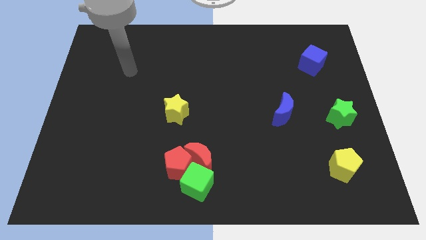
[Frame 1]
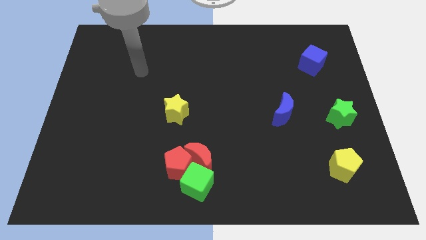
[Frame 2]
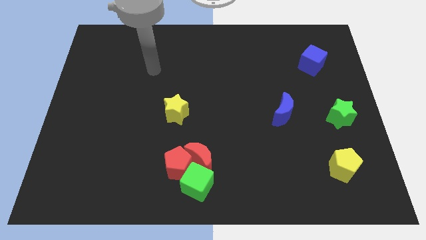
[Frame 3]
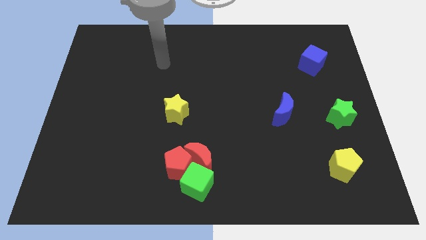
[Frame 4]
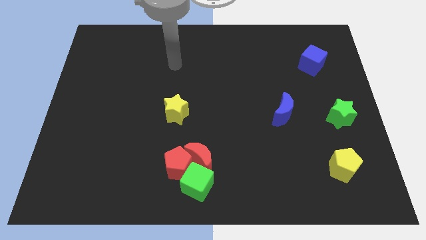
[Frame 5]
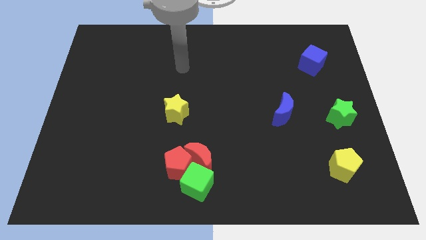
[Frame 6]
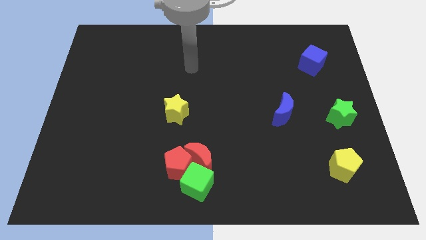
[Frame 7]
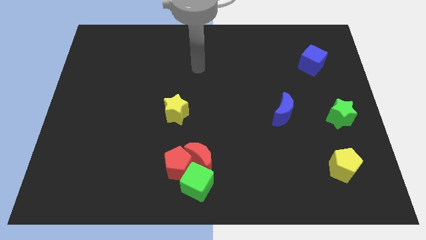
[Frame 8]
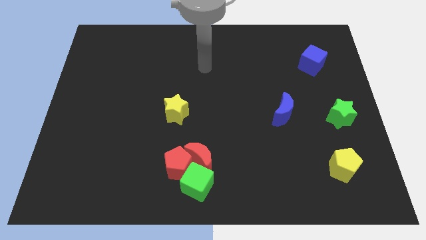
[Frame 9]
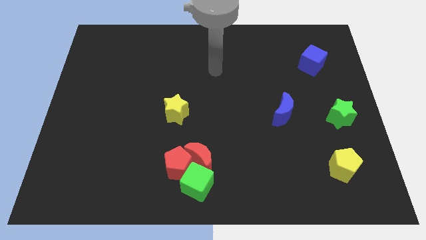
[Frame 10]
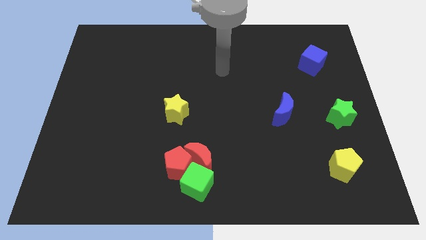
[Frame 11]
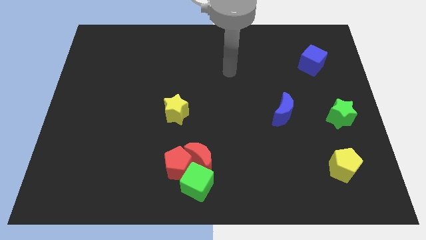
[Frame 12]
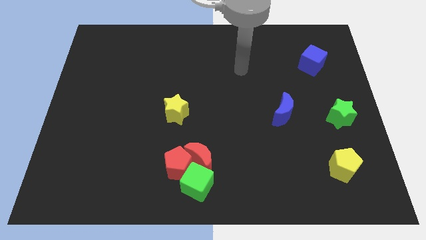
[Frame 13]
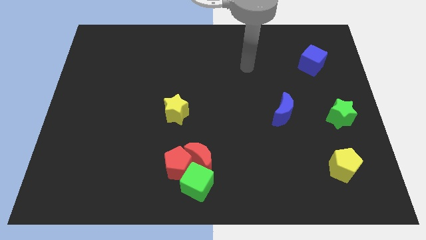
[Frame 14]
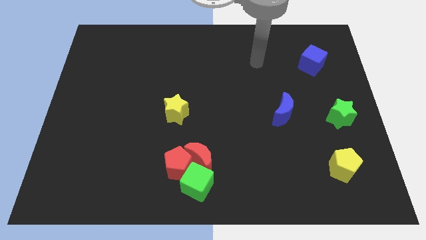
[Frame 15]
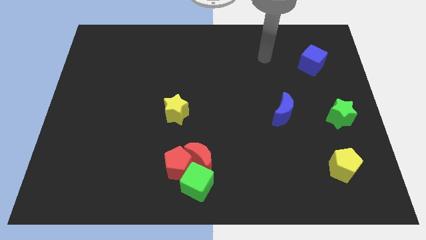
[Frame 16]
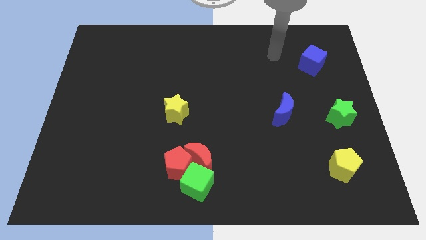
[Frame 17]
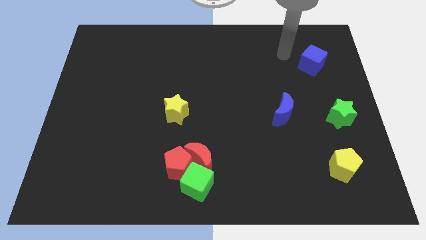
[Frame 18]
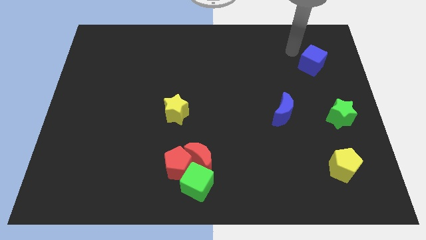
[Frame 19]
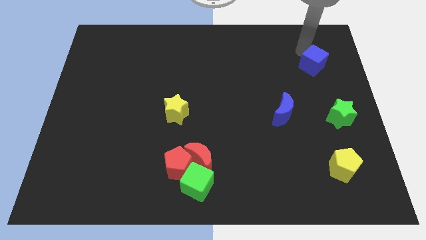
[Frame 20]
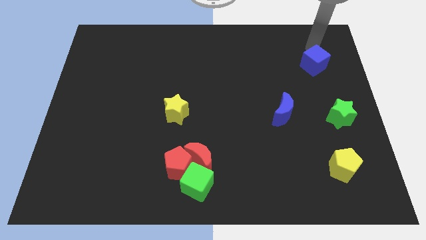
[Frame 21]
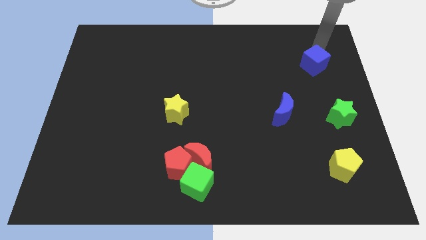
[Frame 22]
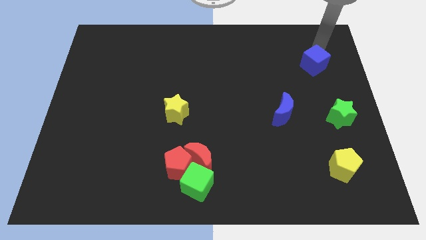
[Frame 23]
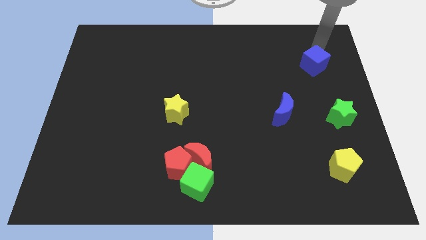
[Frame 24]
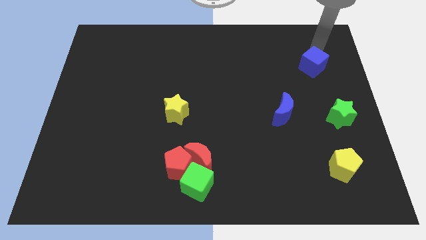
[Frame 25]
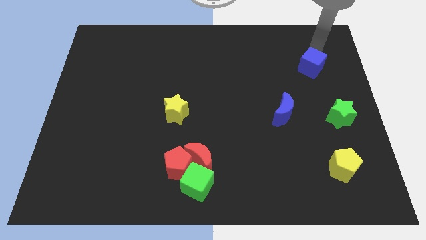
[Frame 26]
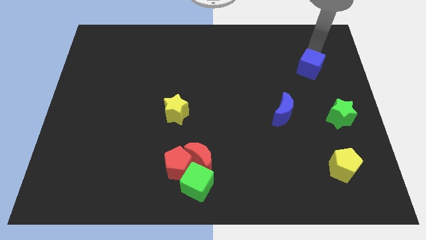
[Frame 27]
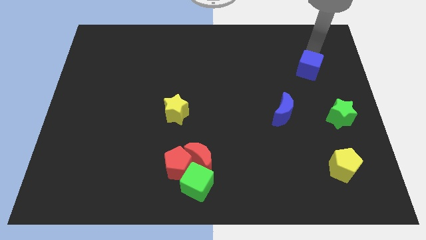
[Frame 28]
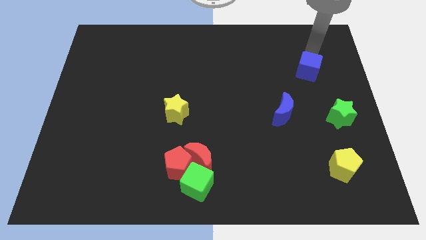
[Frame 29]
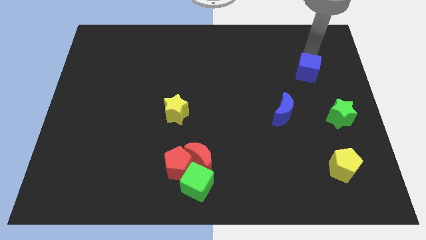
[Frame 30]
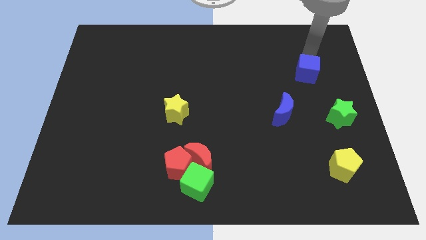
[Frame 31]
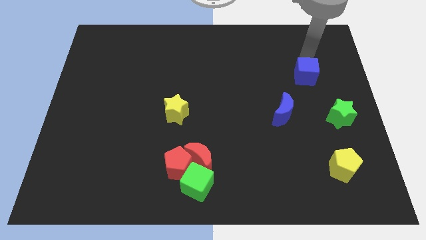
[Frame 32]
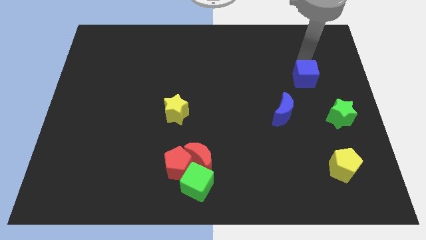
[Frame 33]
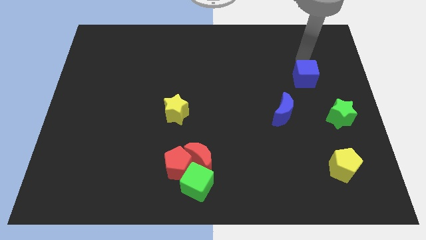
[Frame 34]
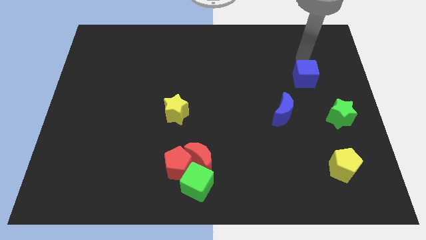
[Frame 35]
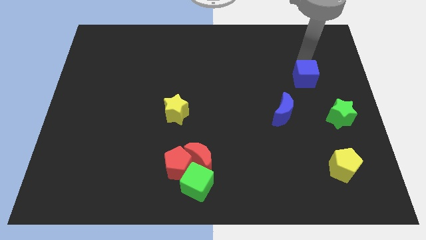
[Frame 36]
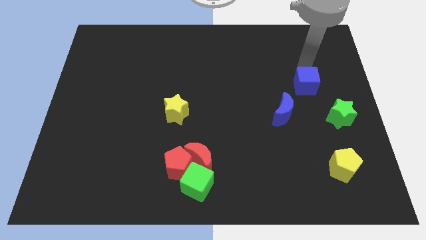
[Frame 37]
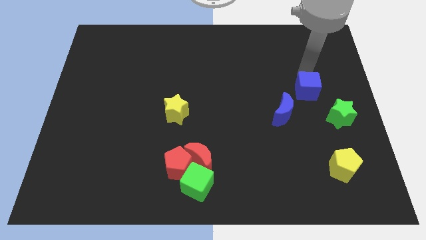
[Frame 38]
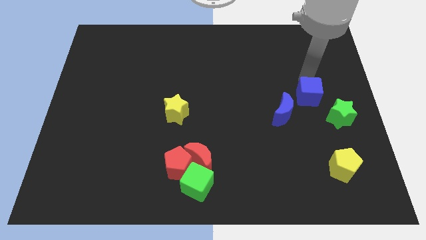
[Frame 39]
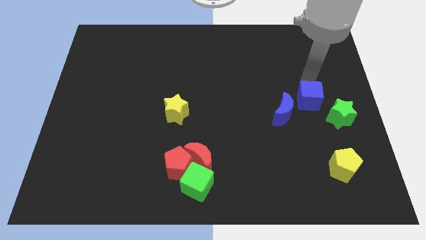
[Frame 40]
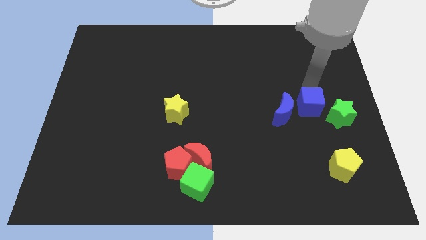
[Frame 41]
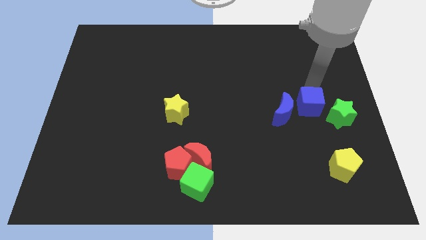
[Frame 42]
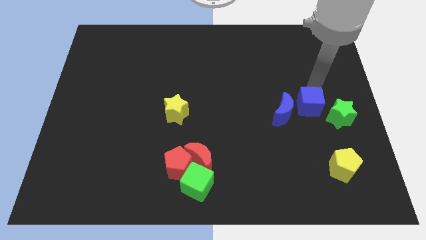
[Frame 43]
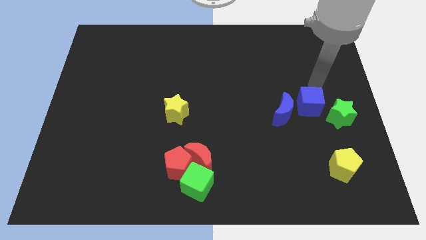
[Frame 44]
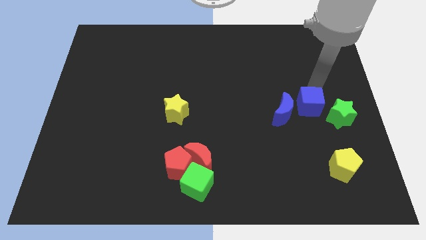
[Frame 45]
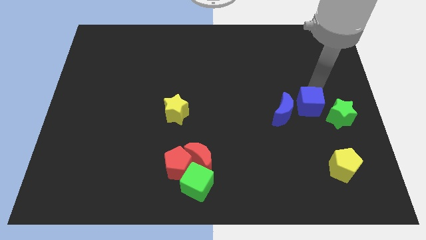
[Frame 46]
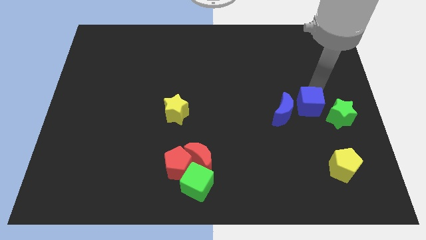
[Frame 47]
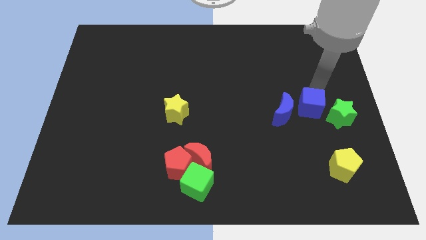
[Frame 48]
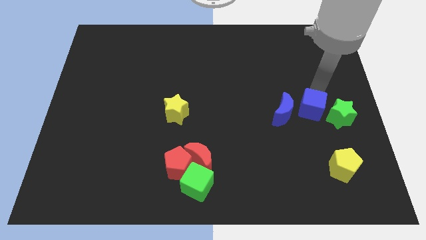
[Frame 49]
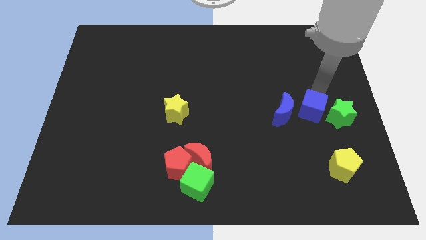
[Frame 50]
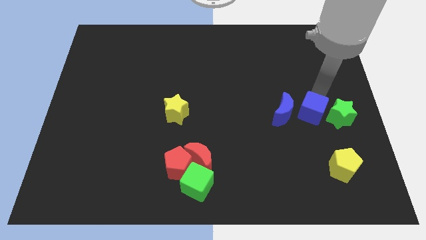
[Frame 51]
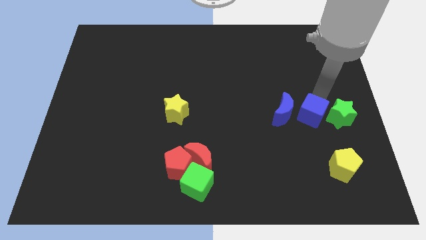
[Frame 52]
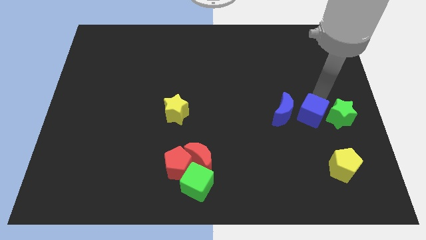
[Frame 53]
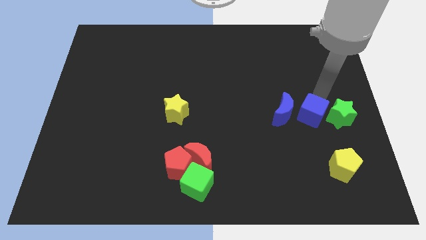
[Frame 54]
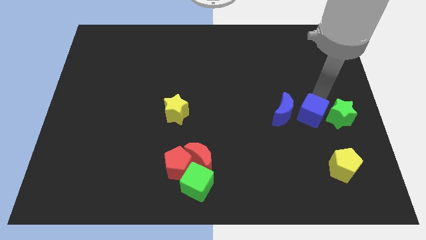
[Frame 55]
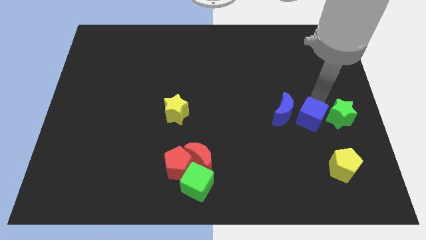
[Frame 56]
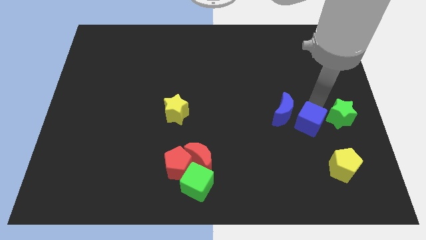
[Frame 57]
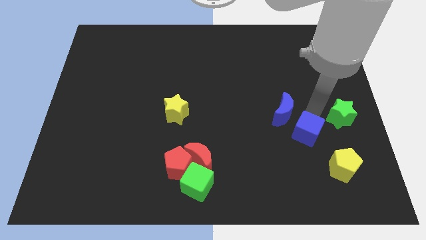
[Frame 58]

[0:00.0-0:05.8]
slide the blue cube below the blue moon

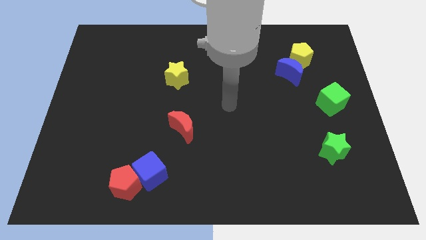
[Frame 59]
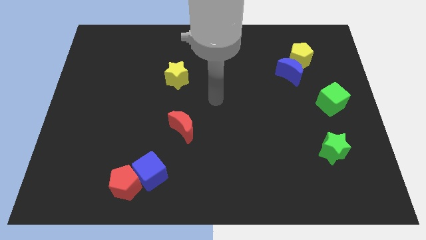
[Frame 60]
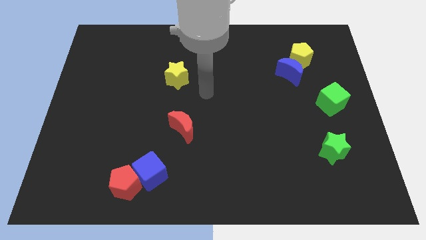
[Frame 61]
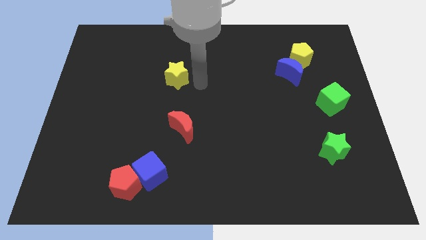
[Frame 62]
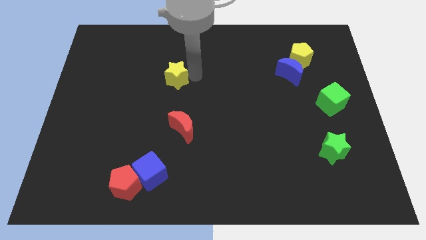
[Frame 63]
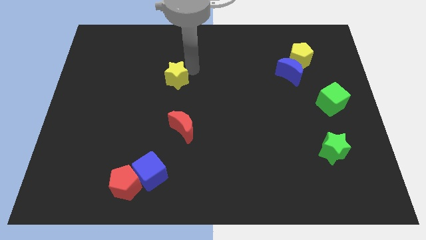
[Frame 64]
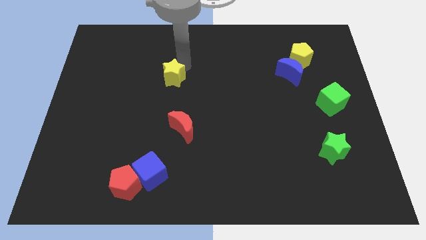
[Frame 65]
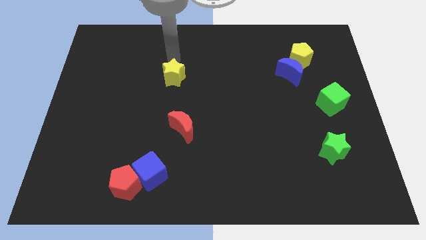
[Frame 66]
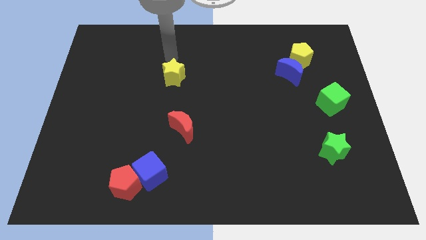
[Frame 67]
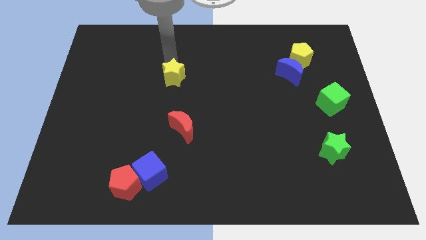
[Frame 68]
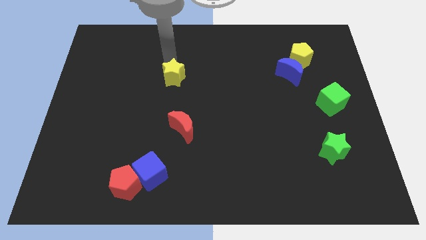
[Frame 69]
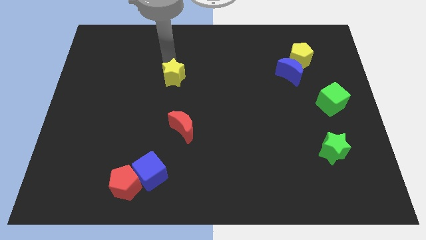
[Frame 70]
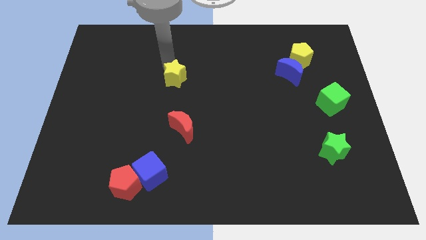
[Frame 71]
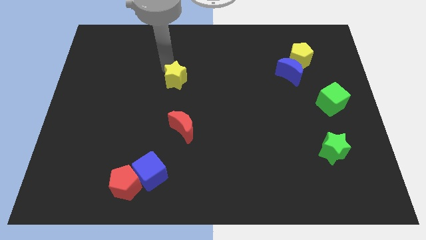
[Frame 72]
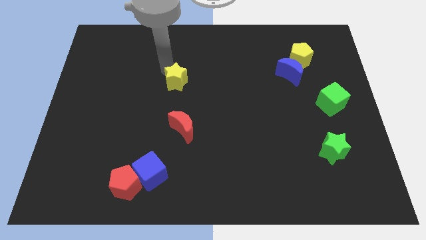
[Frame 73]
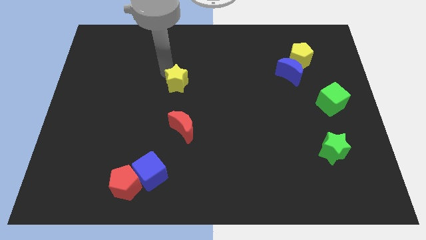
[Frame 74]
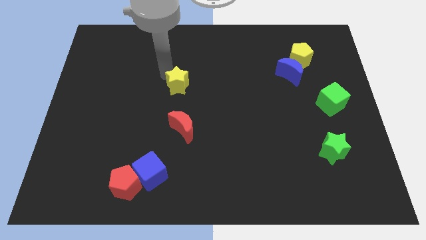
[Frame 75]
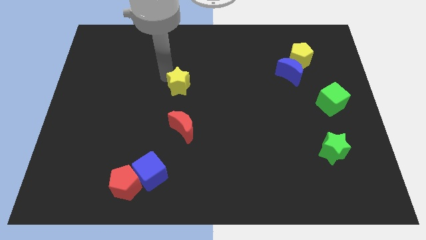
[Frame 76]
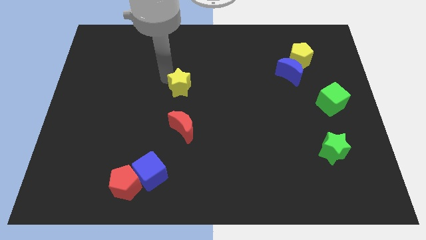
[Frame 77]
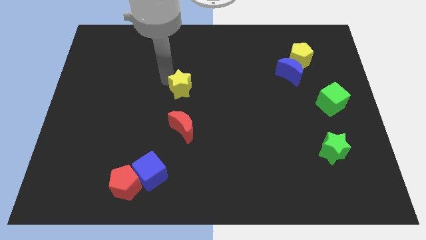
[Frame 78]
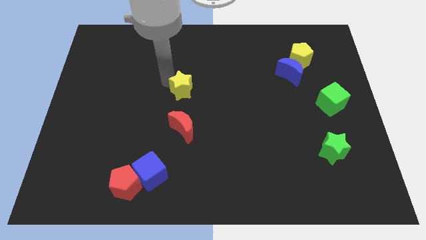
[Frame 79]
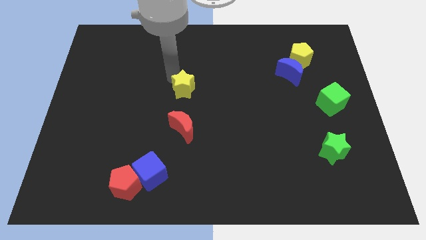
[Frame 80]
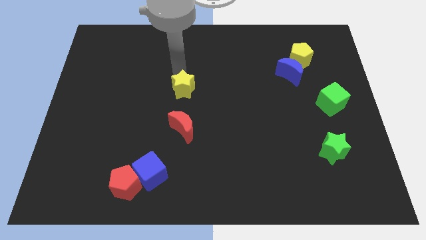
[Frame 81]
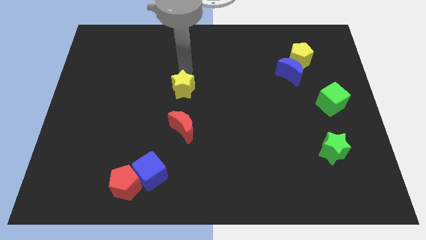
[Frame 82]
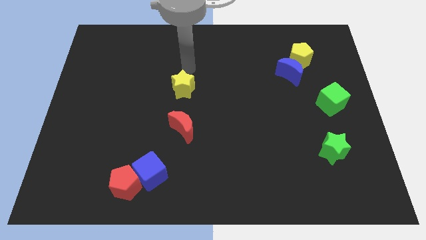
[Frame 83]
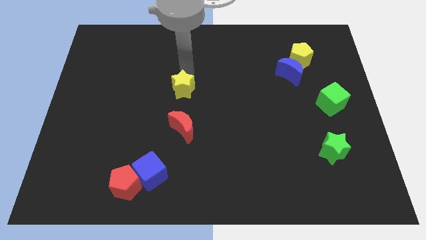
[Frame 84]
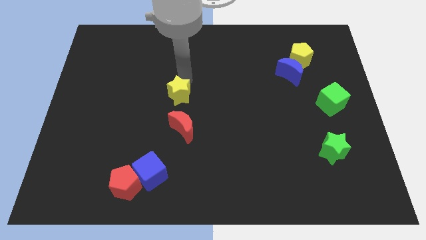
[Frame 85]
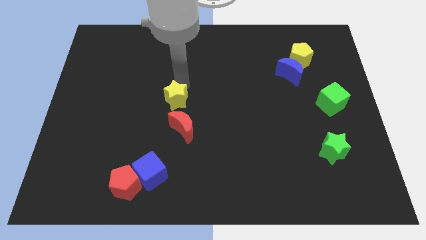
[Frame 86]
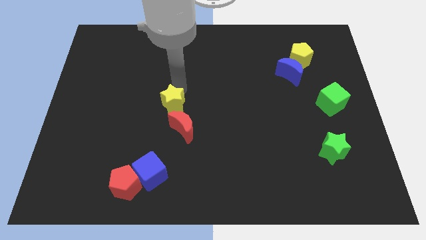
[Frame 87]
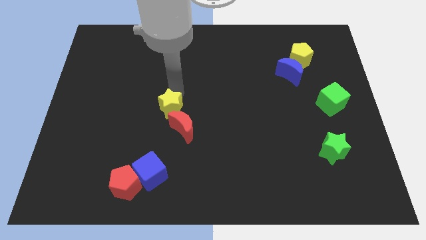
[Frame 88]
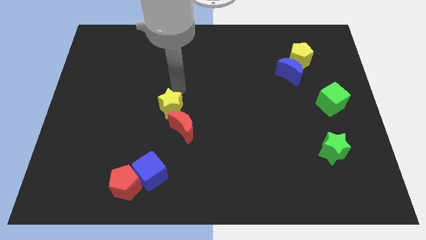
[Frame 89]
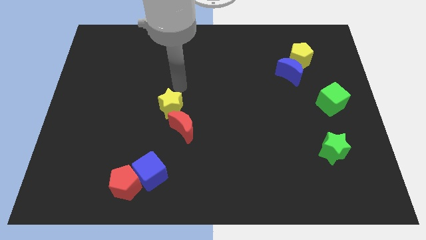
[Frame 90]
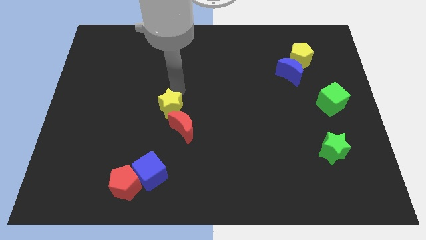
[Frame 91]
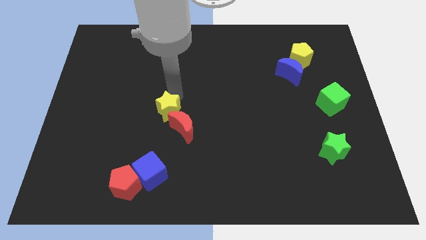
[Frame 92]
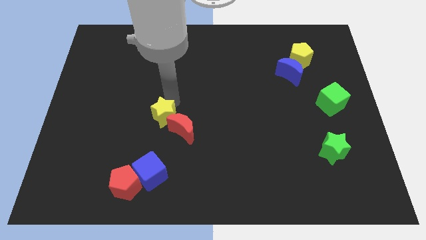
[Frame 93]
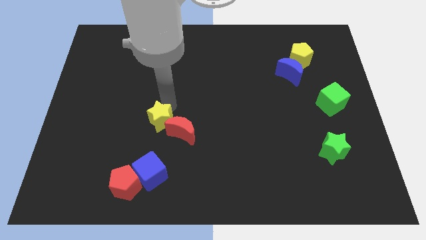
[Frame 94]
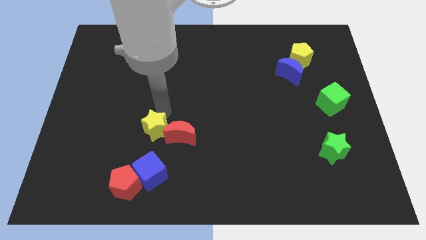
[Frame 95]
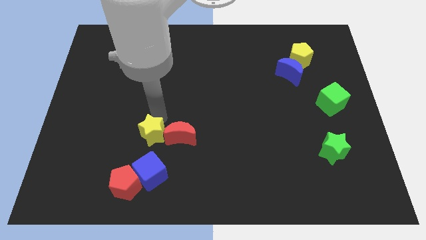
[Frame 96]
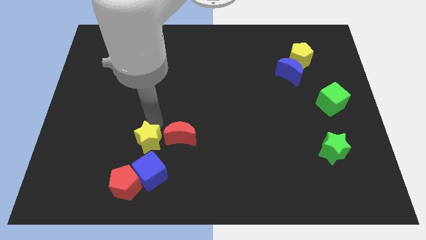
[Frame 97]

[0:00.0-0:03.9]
put the yellow star diagonally down and to the left of the red moon
